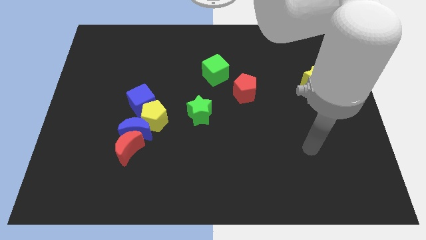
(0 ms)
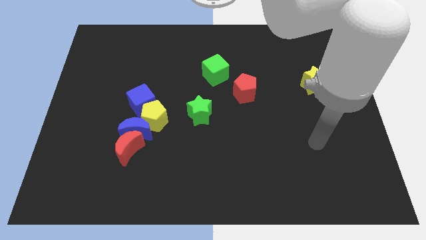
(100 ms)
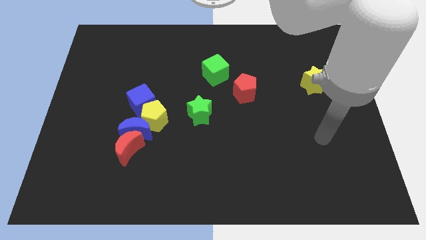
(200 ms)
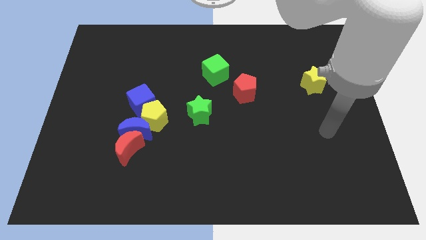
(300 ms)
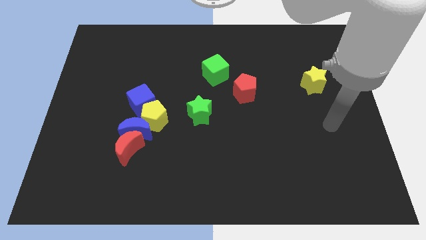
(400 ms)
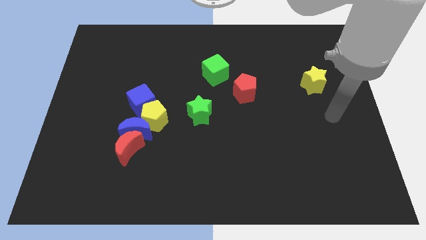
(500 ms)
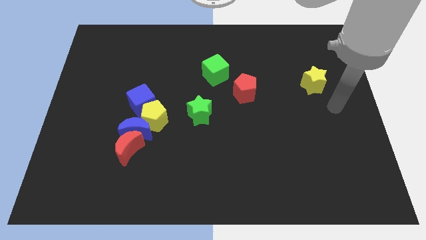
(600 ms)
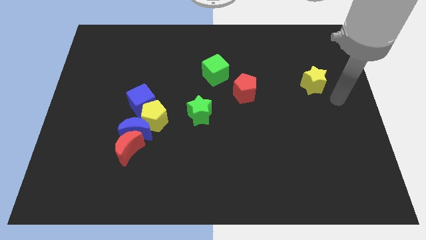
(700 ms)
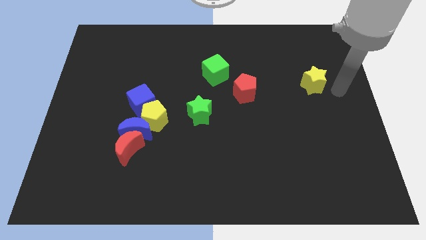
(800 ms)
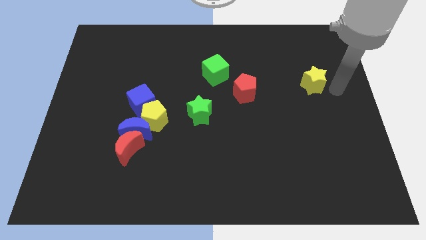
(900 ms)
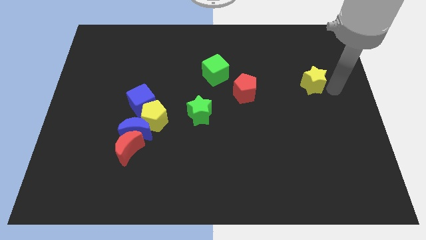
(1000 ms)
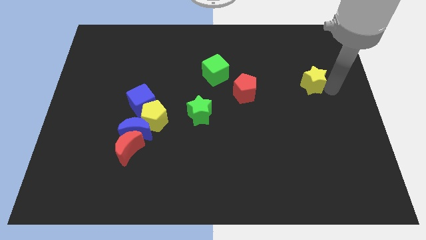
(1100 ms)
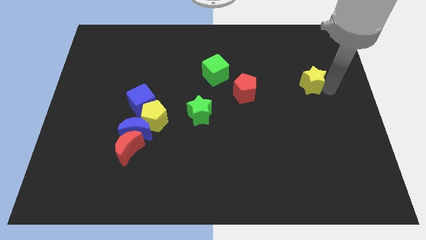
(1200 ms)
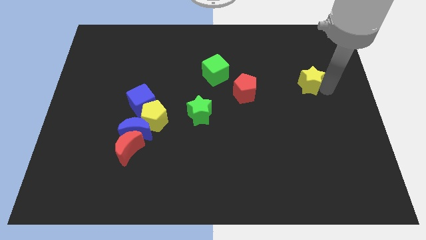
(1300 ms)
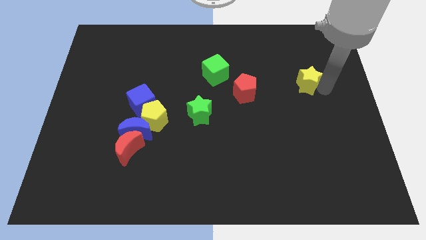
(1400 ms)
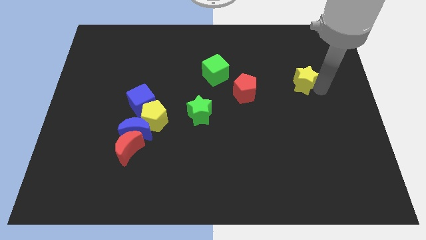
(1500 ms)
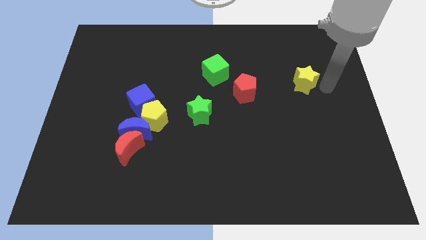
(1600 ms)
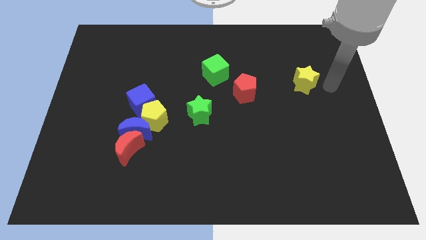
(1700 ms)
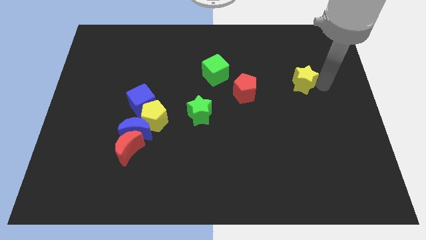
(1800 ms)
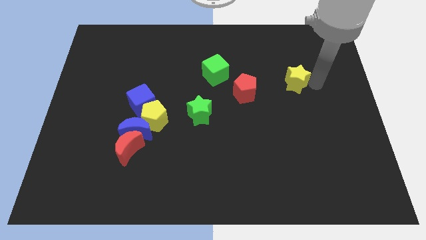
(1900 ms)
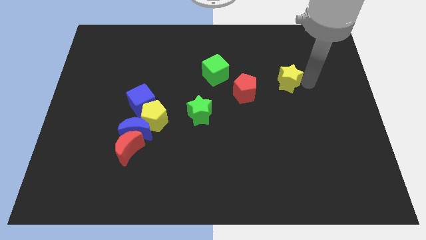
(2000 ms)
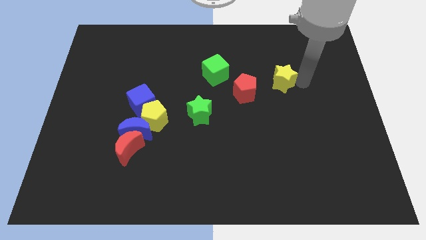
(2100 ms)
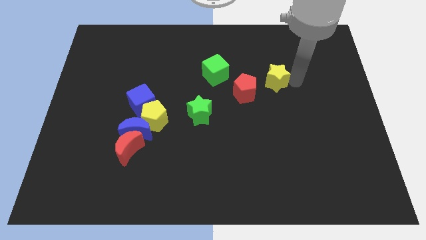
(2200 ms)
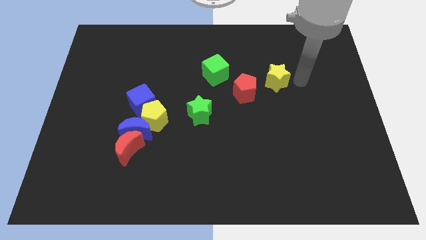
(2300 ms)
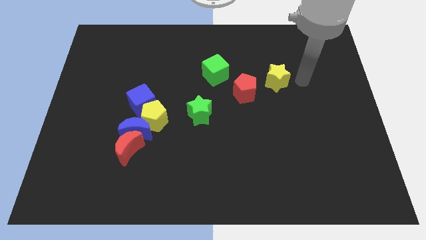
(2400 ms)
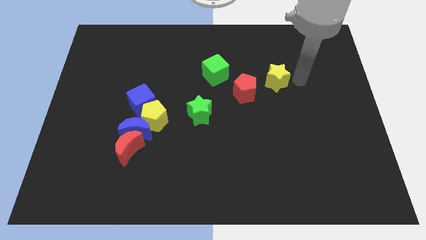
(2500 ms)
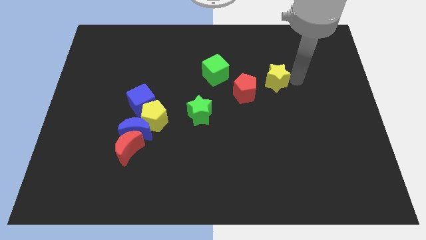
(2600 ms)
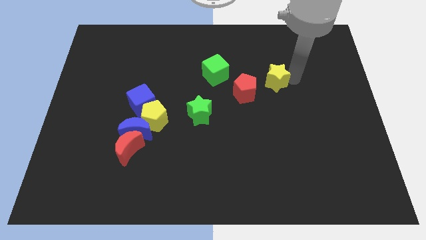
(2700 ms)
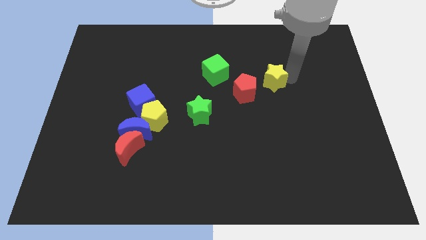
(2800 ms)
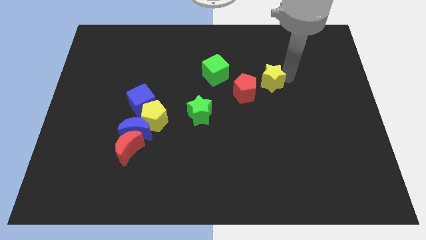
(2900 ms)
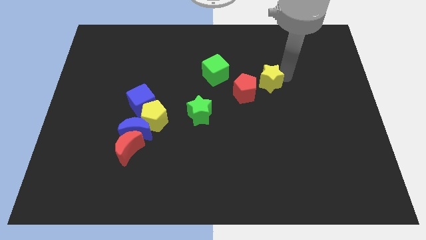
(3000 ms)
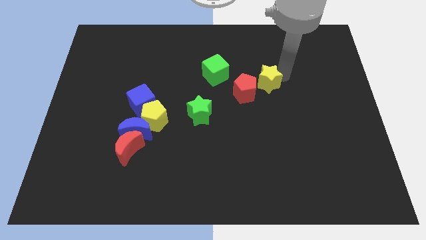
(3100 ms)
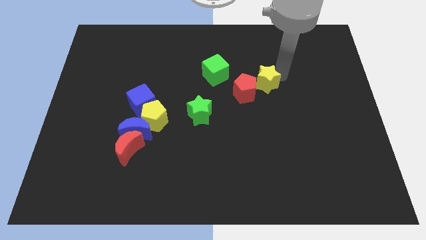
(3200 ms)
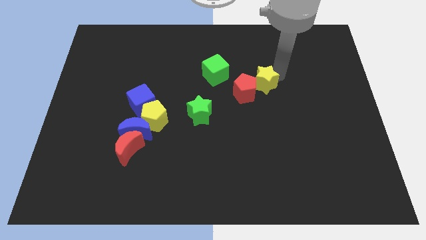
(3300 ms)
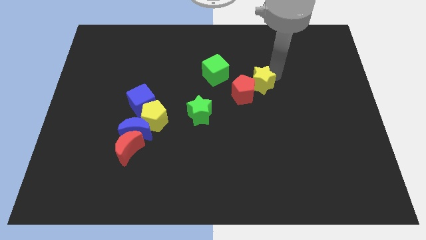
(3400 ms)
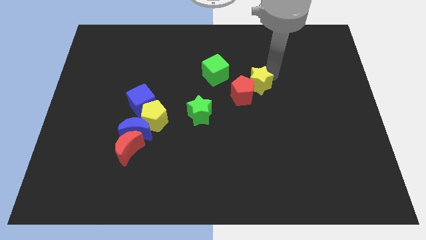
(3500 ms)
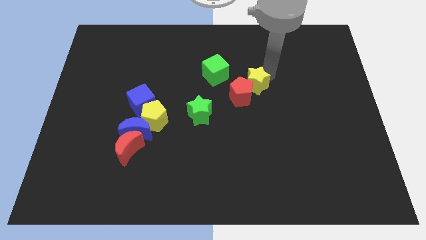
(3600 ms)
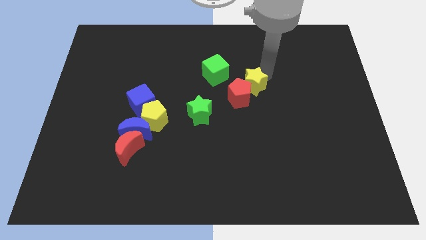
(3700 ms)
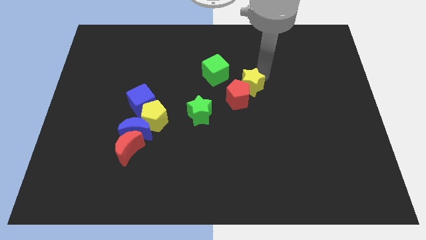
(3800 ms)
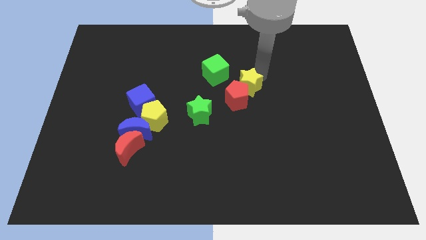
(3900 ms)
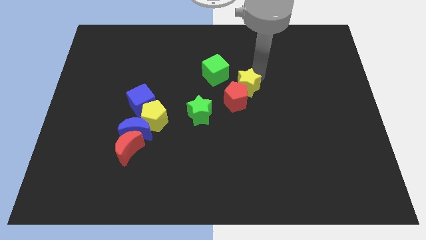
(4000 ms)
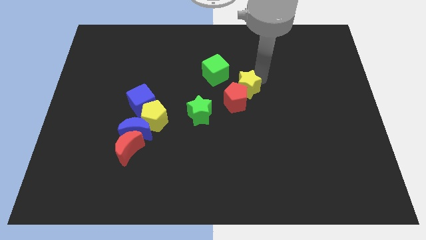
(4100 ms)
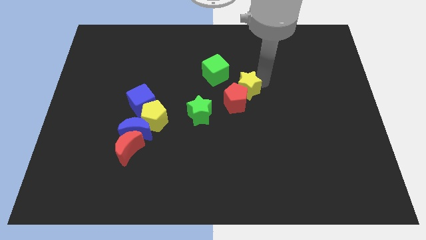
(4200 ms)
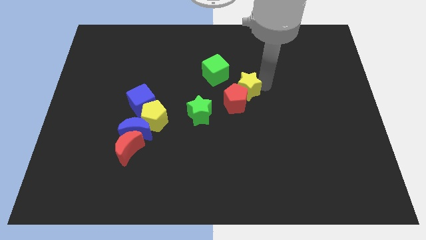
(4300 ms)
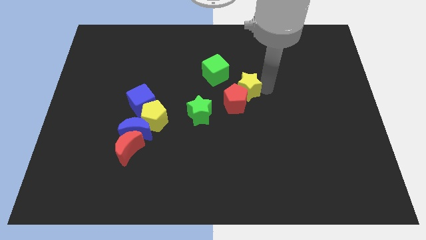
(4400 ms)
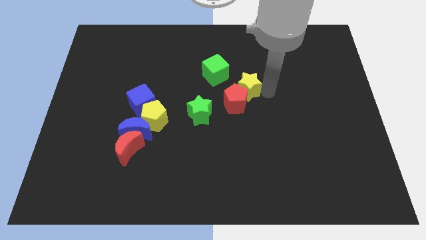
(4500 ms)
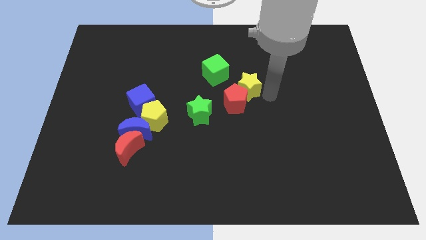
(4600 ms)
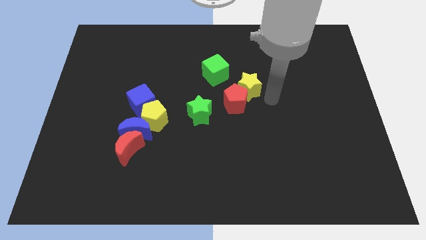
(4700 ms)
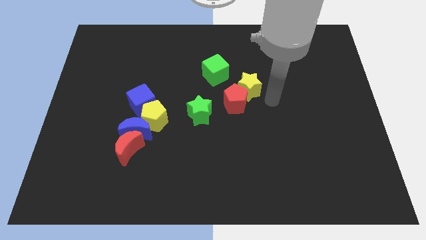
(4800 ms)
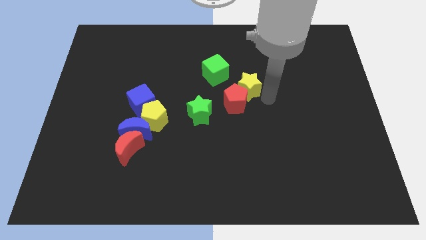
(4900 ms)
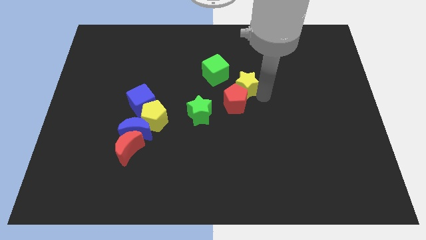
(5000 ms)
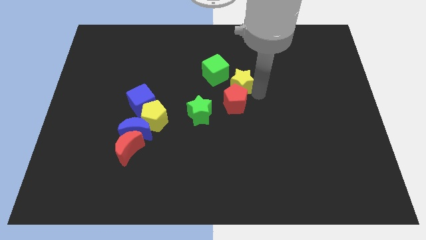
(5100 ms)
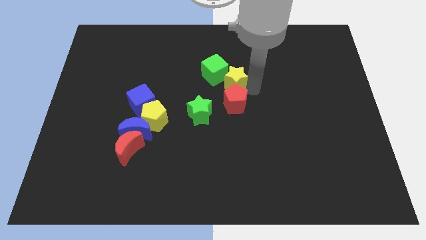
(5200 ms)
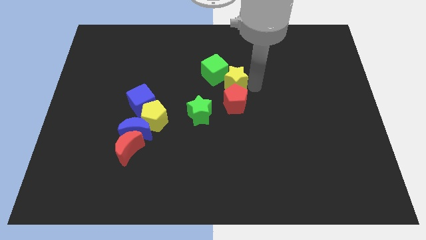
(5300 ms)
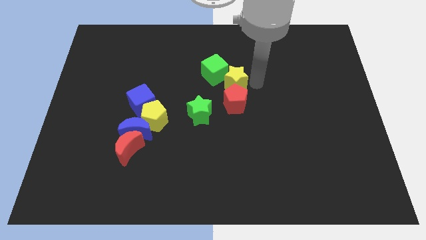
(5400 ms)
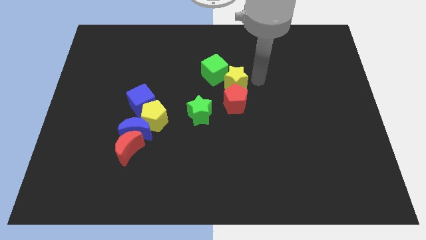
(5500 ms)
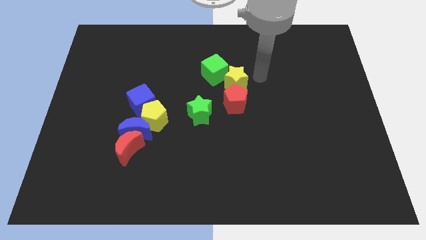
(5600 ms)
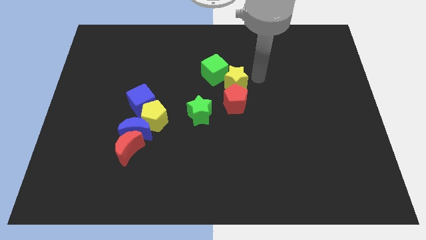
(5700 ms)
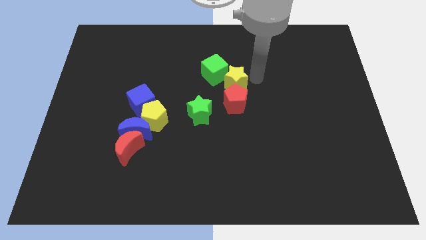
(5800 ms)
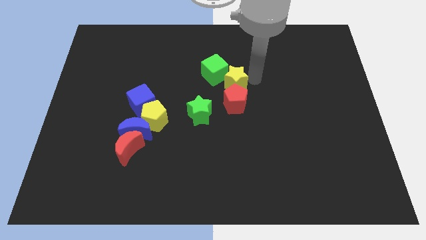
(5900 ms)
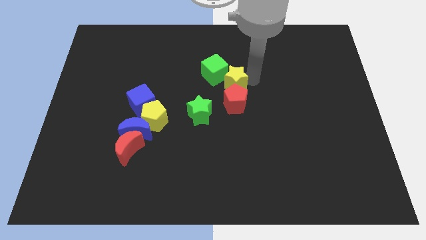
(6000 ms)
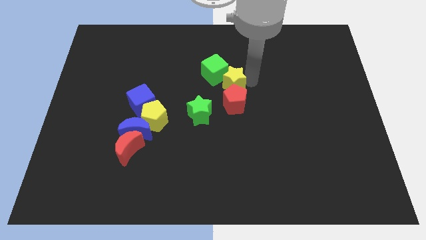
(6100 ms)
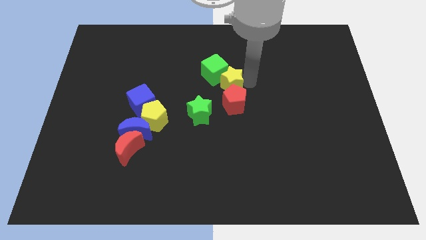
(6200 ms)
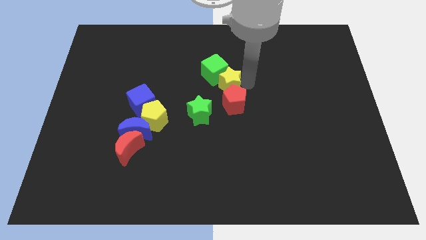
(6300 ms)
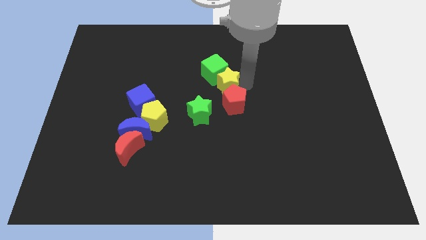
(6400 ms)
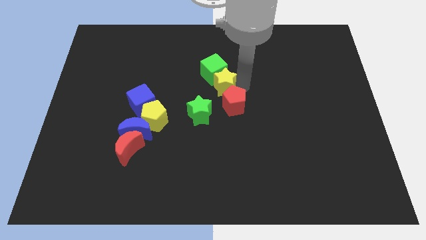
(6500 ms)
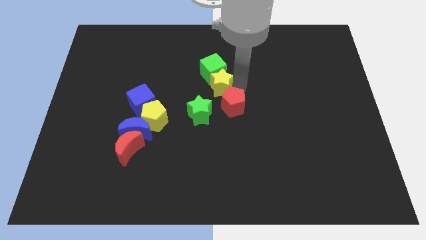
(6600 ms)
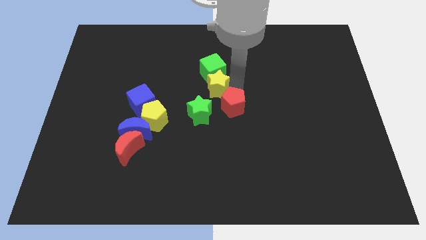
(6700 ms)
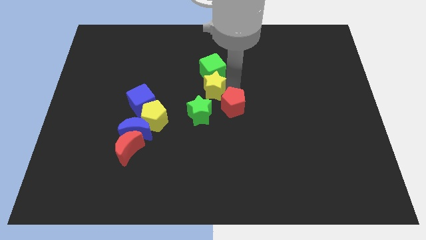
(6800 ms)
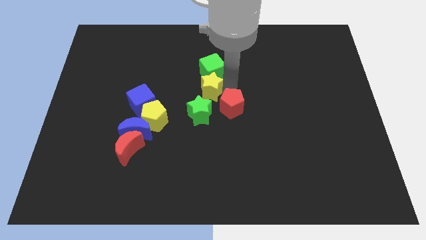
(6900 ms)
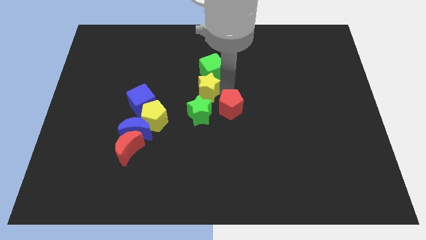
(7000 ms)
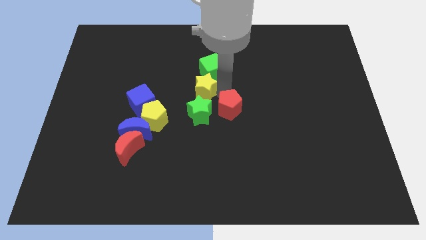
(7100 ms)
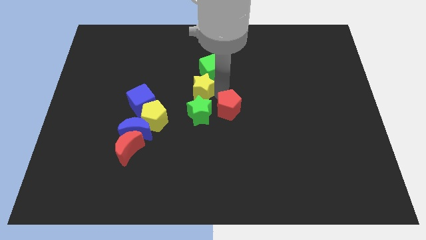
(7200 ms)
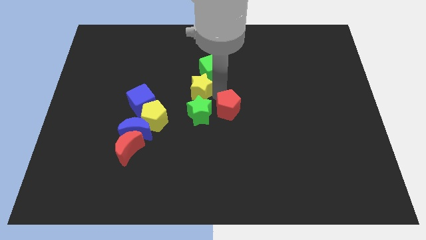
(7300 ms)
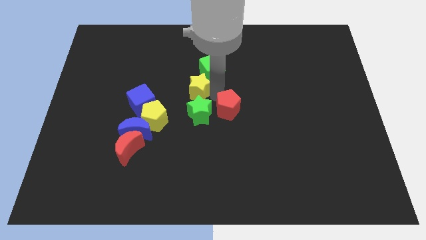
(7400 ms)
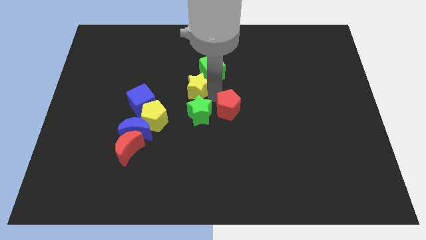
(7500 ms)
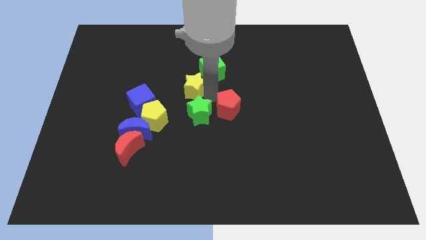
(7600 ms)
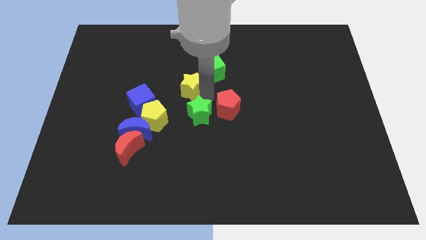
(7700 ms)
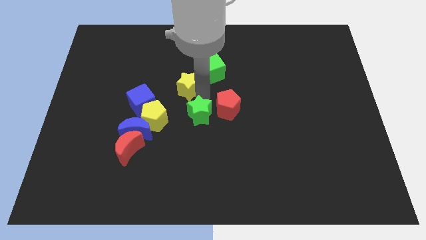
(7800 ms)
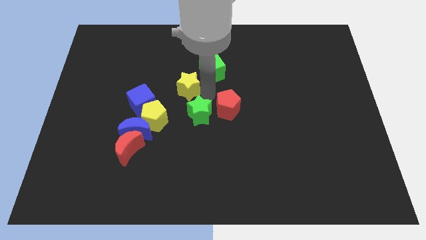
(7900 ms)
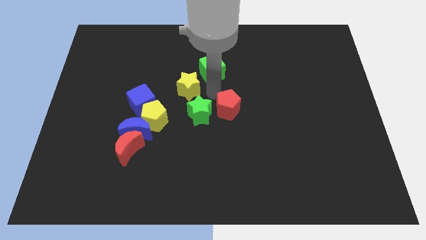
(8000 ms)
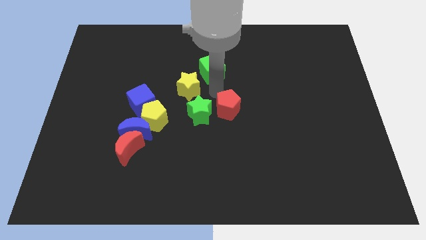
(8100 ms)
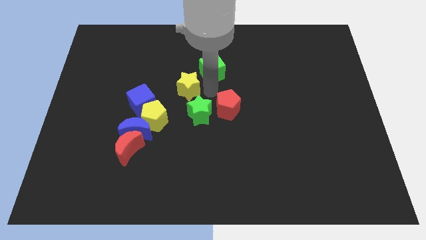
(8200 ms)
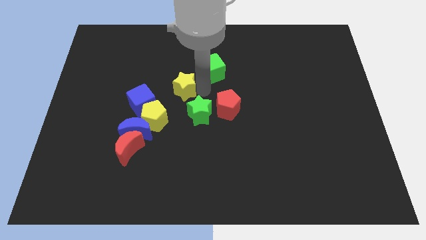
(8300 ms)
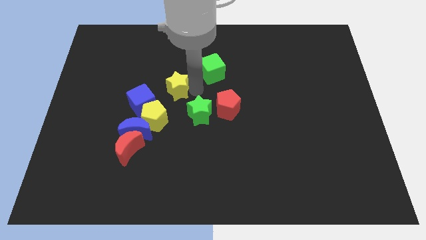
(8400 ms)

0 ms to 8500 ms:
move the yellow star above the yellow pentagon
